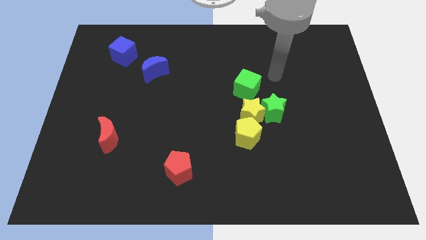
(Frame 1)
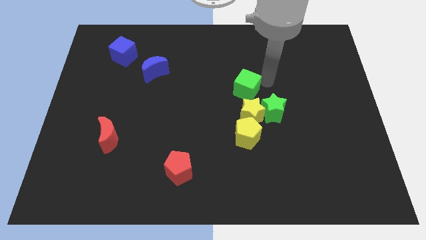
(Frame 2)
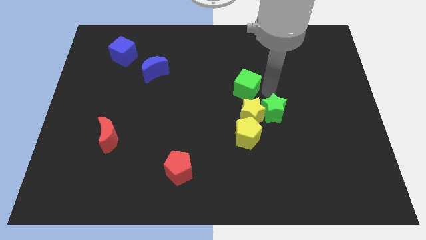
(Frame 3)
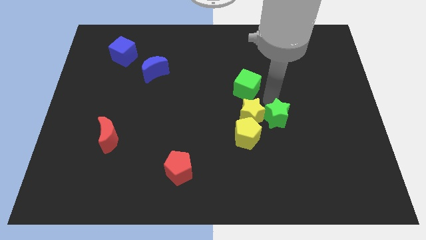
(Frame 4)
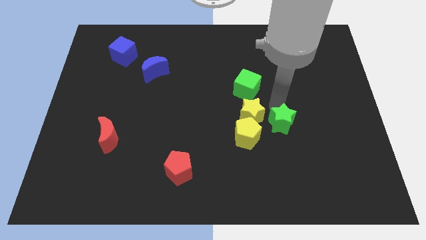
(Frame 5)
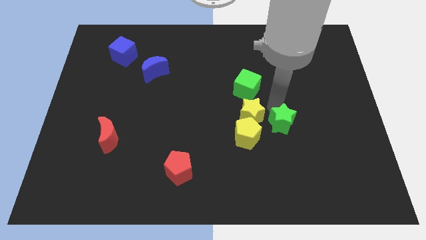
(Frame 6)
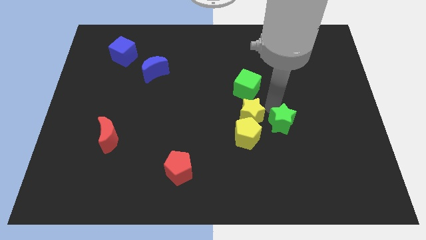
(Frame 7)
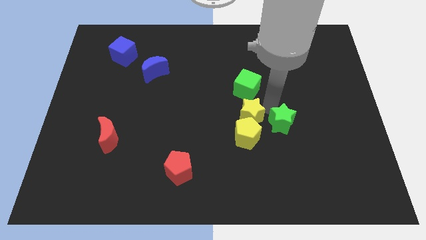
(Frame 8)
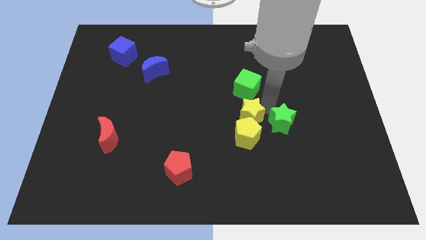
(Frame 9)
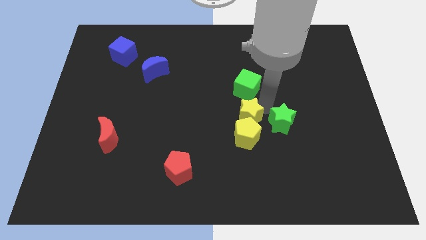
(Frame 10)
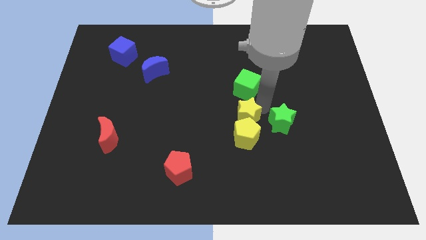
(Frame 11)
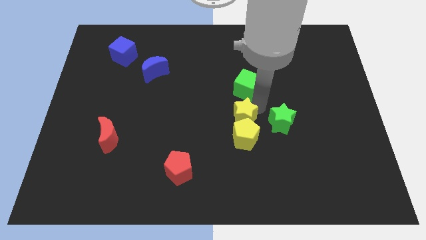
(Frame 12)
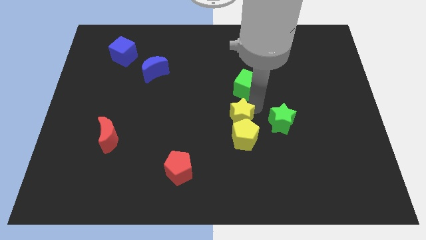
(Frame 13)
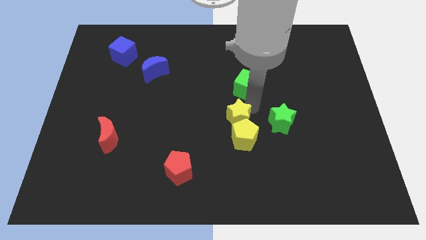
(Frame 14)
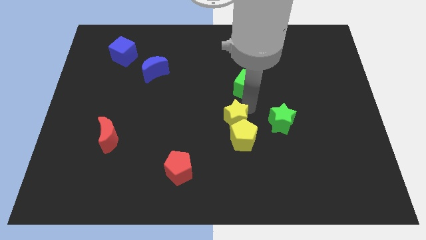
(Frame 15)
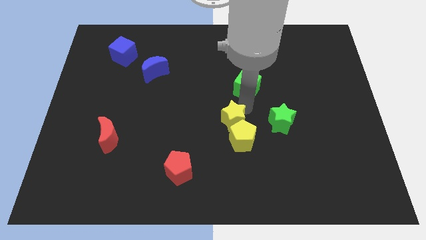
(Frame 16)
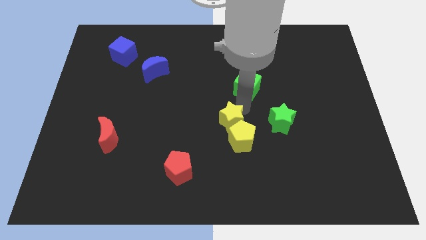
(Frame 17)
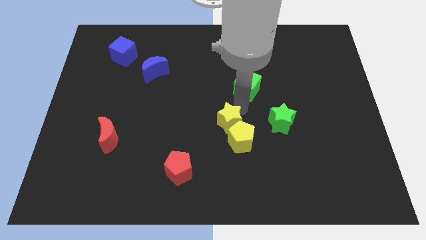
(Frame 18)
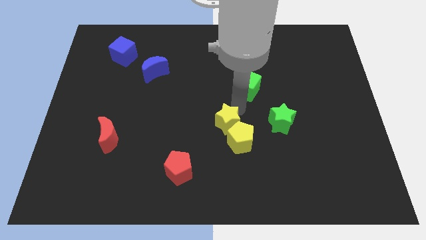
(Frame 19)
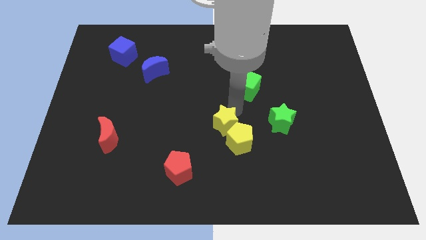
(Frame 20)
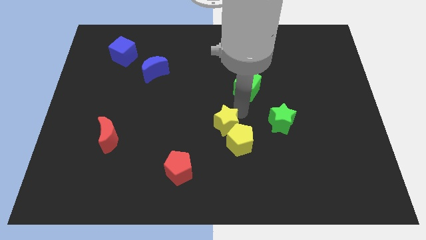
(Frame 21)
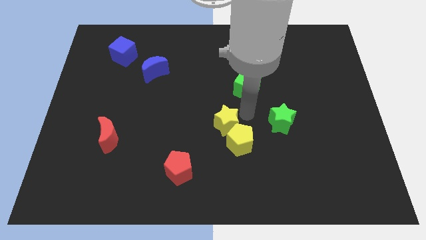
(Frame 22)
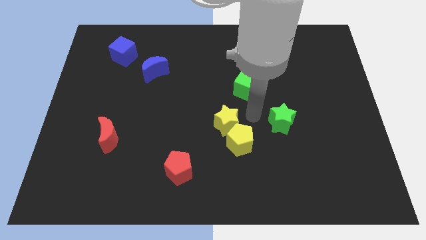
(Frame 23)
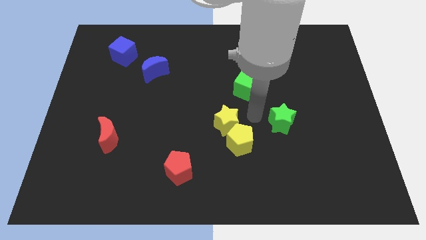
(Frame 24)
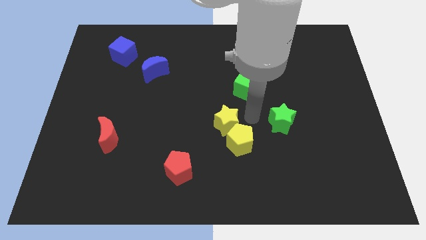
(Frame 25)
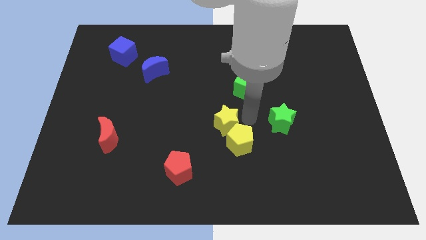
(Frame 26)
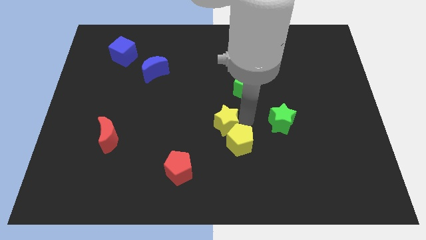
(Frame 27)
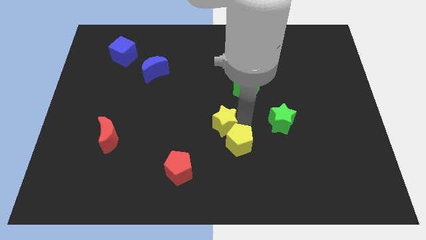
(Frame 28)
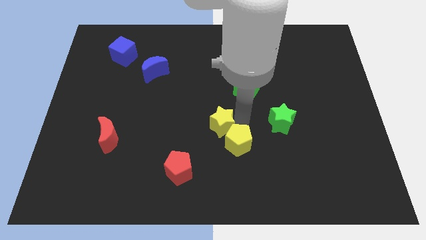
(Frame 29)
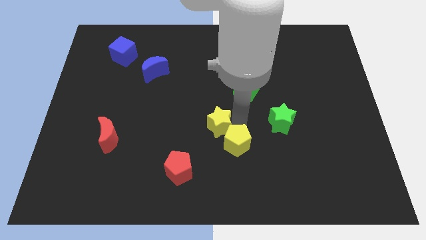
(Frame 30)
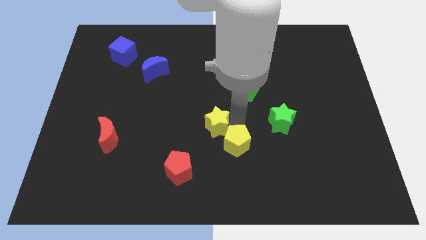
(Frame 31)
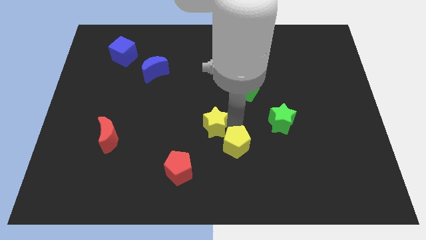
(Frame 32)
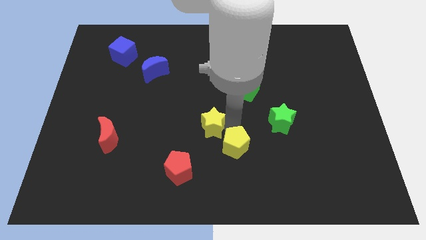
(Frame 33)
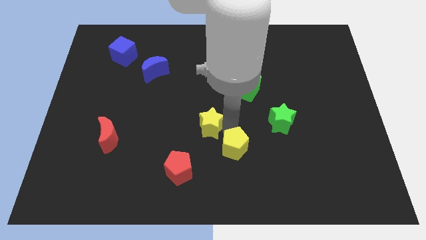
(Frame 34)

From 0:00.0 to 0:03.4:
move the yellow star away from the green star, yellow pentagon, and green cube

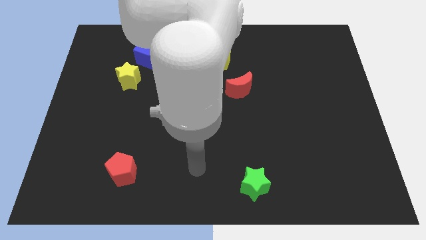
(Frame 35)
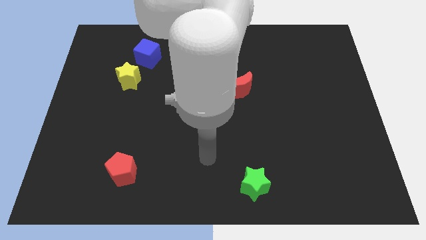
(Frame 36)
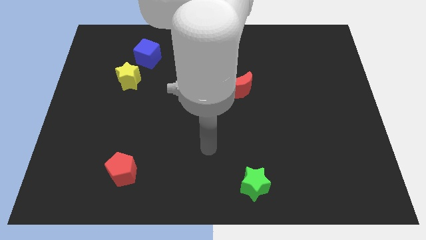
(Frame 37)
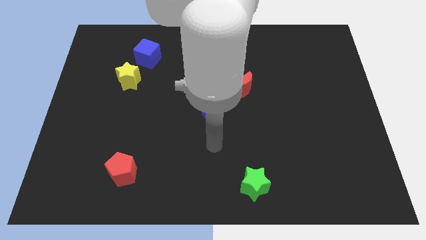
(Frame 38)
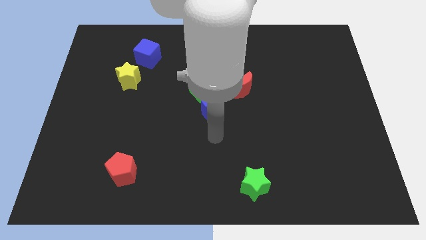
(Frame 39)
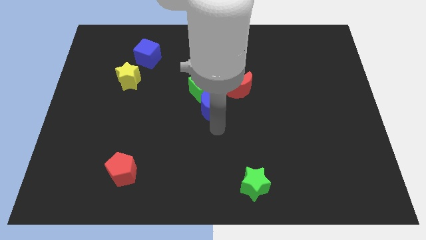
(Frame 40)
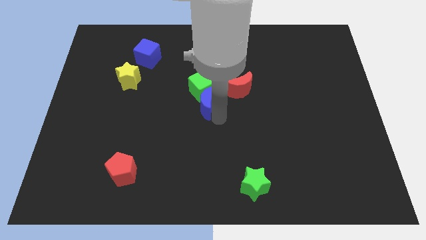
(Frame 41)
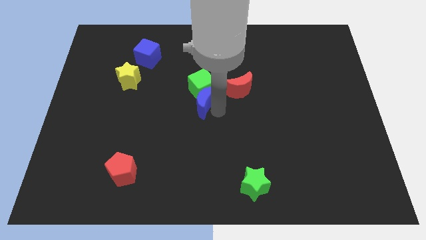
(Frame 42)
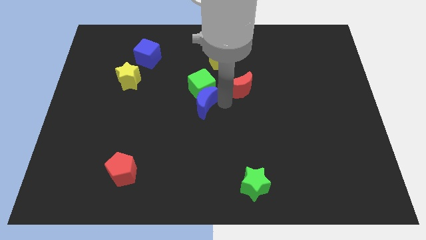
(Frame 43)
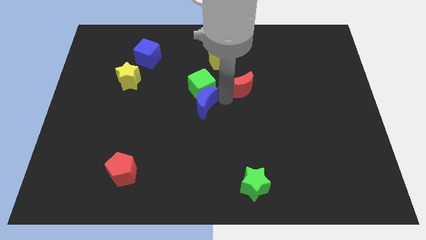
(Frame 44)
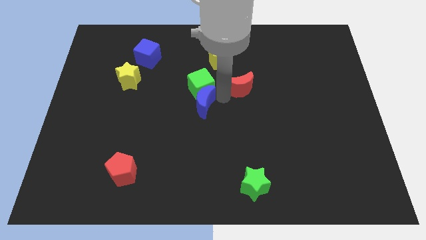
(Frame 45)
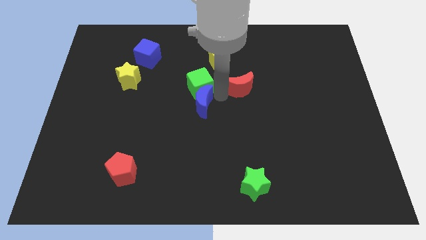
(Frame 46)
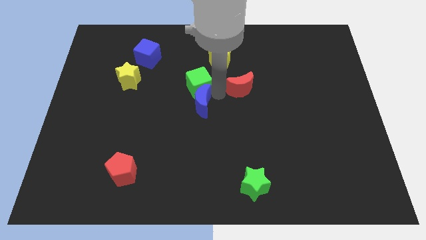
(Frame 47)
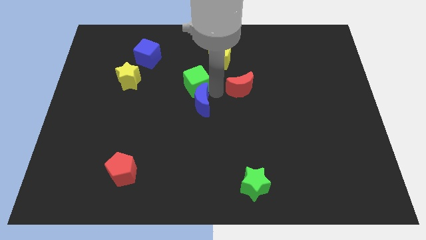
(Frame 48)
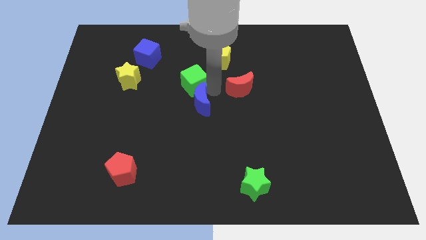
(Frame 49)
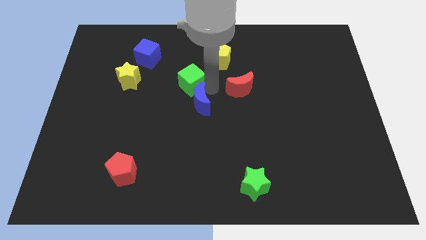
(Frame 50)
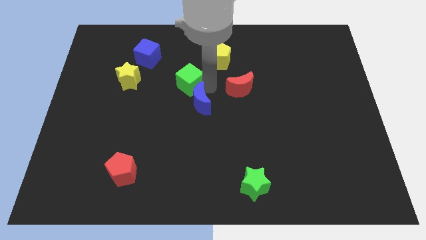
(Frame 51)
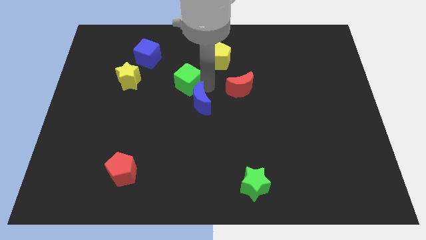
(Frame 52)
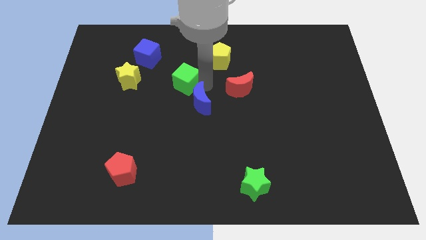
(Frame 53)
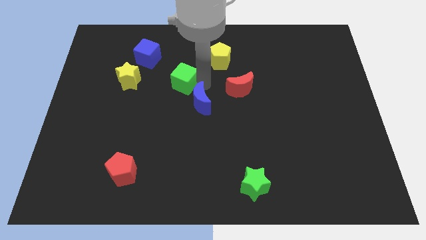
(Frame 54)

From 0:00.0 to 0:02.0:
pull the green cube apart from the blue moon and red moon

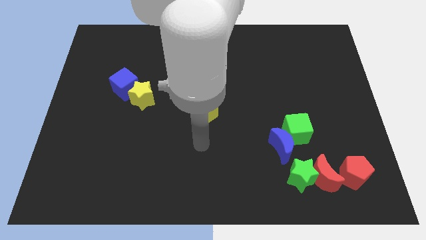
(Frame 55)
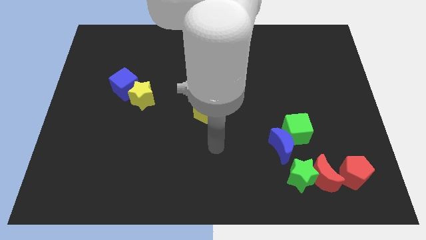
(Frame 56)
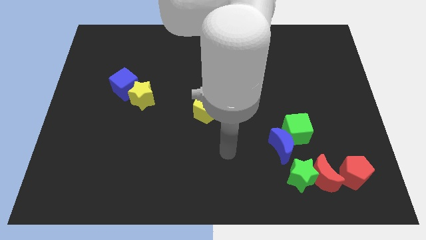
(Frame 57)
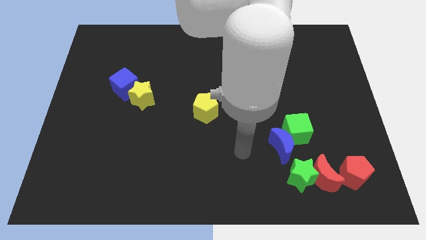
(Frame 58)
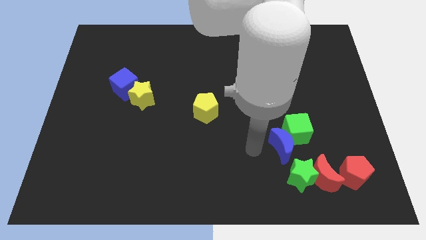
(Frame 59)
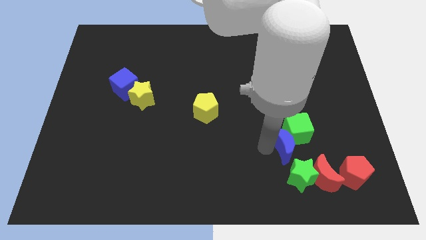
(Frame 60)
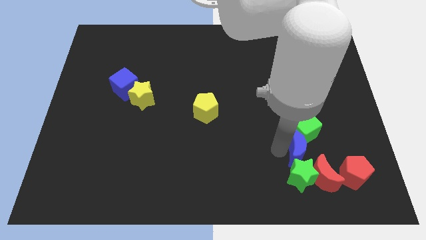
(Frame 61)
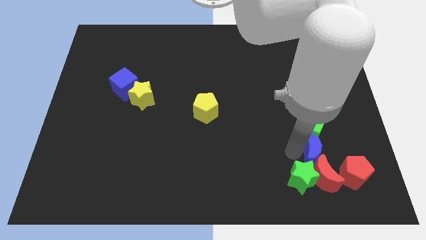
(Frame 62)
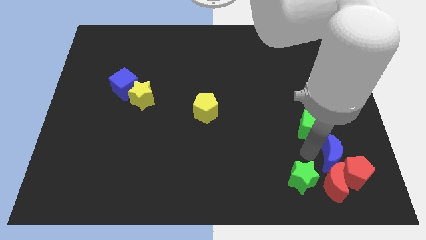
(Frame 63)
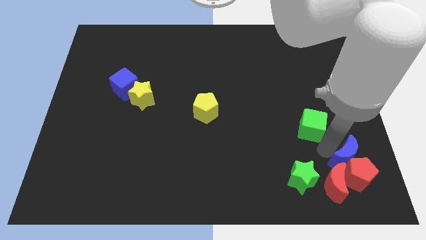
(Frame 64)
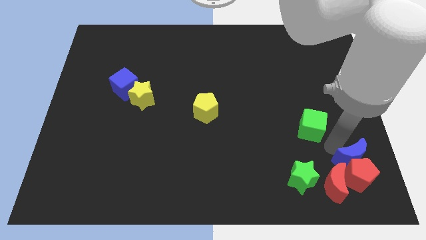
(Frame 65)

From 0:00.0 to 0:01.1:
separate the green cube from the blue moon

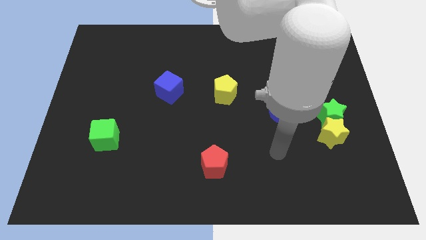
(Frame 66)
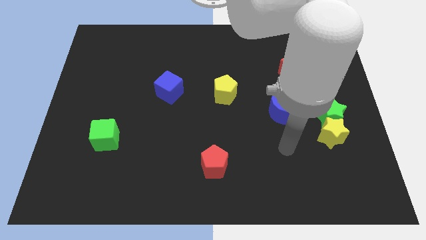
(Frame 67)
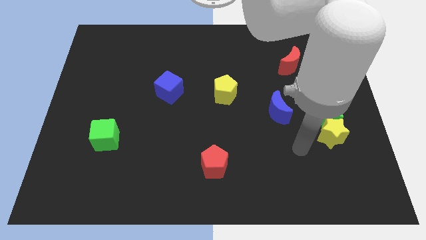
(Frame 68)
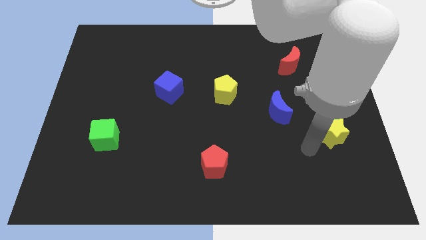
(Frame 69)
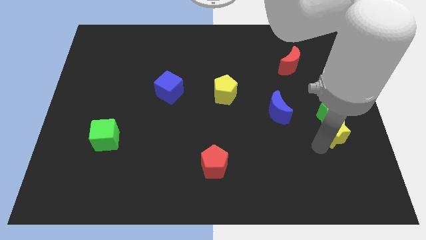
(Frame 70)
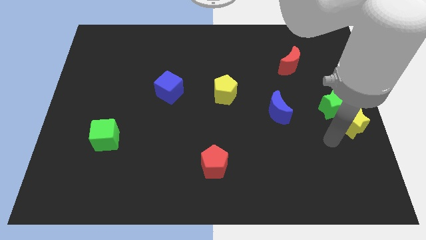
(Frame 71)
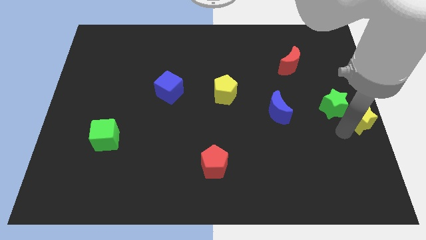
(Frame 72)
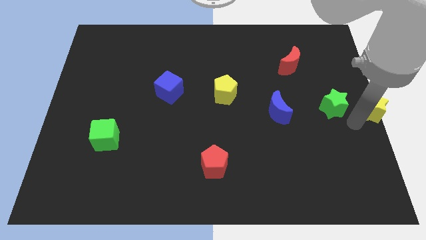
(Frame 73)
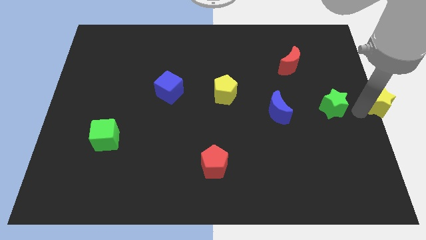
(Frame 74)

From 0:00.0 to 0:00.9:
separate the green star from the yellow star

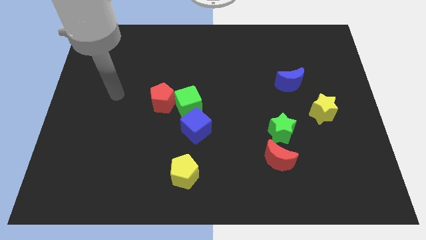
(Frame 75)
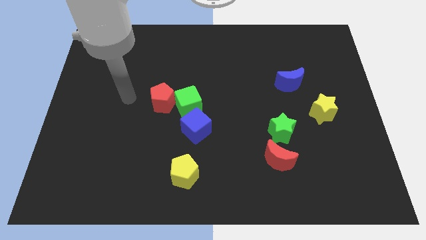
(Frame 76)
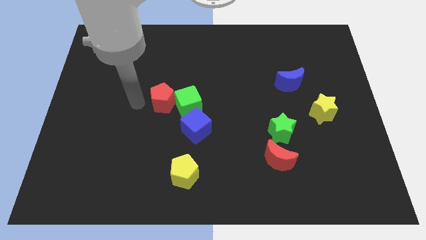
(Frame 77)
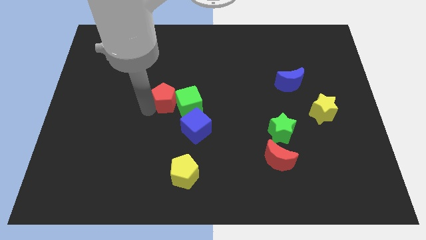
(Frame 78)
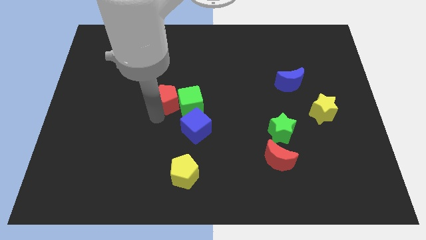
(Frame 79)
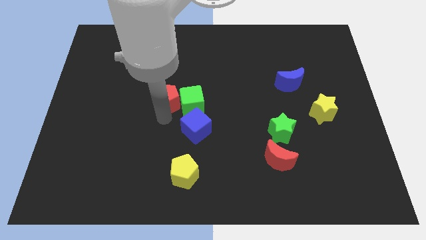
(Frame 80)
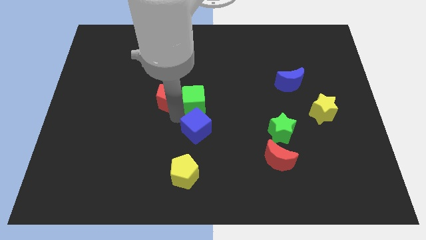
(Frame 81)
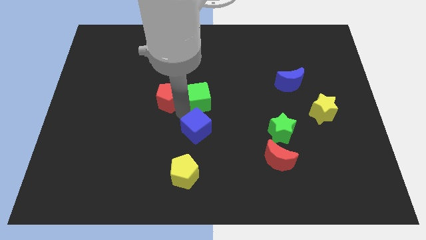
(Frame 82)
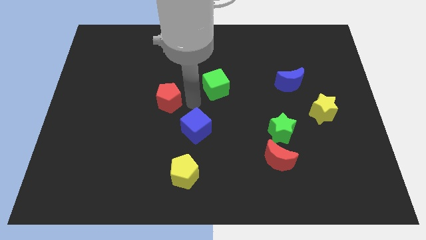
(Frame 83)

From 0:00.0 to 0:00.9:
move the red pentagon away from the green cube

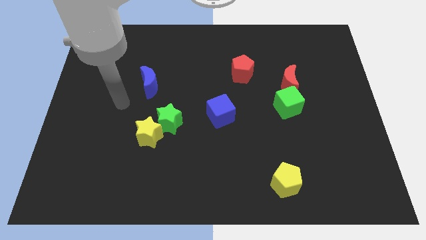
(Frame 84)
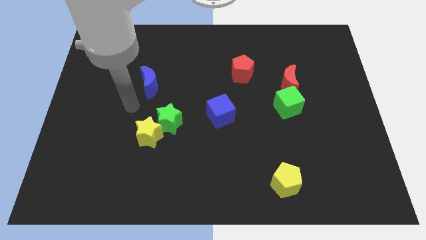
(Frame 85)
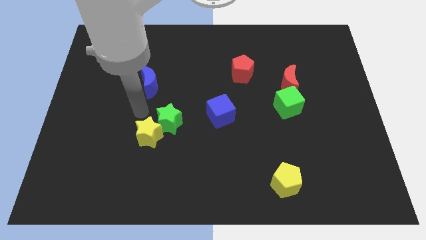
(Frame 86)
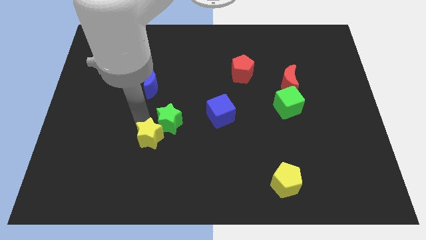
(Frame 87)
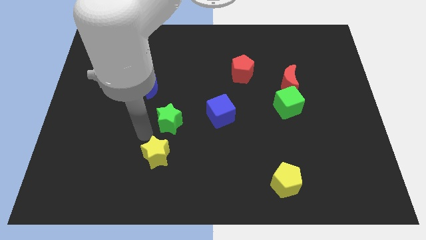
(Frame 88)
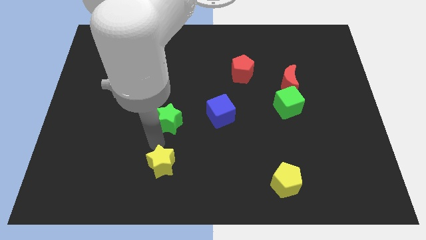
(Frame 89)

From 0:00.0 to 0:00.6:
move the green star away from the yellow star

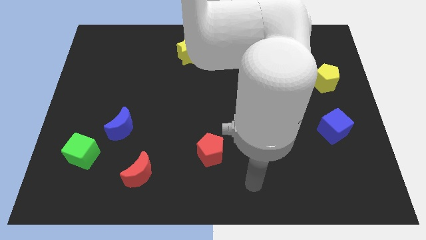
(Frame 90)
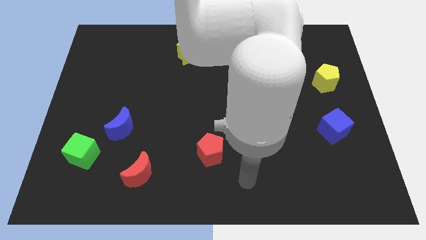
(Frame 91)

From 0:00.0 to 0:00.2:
move the blue moon away from the green cube
